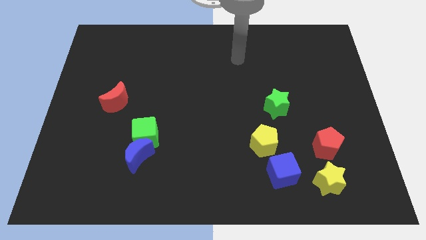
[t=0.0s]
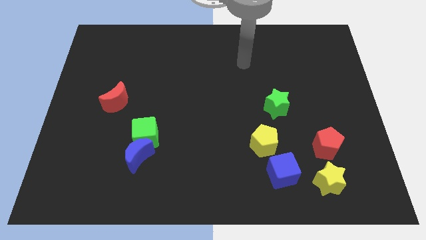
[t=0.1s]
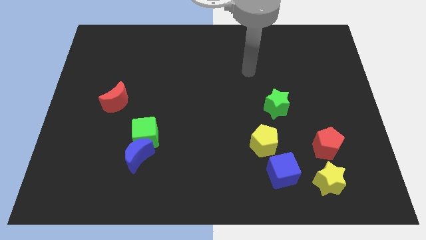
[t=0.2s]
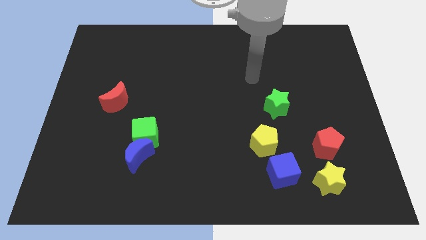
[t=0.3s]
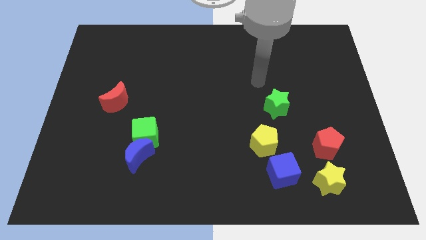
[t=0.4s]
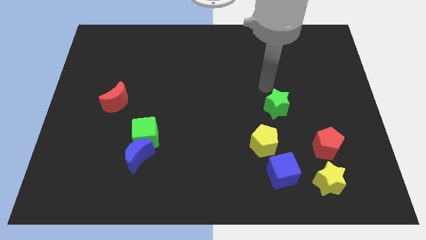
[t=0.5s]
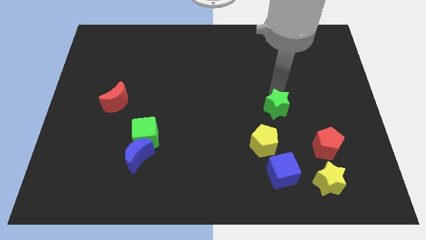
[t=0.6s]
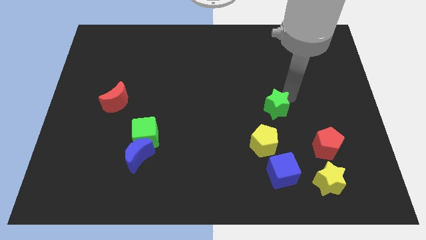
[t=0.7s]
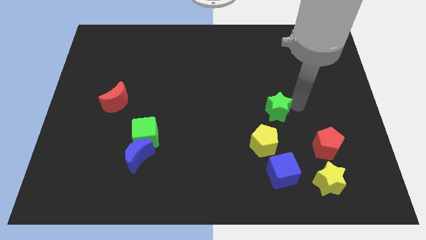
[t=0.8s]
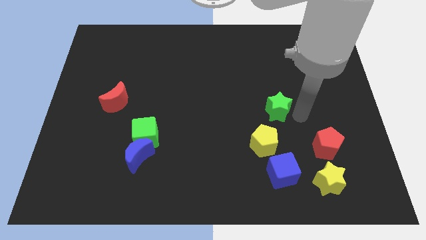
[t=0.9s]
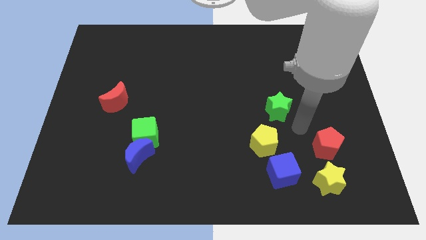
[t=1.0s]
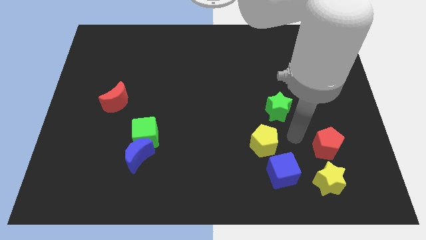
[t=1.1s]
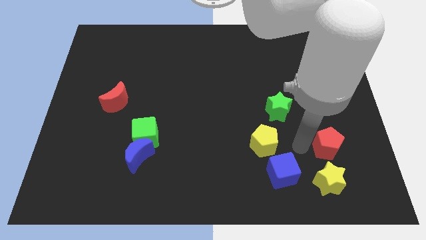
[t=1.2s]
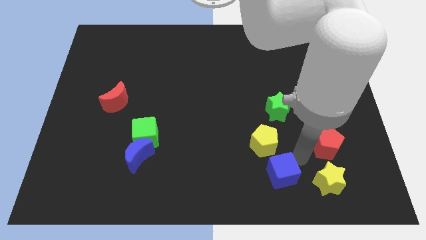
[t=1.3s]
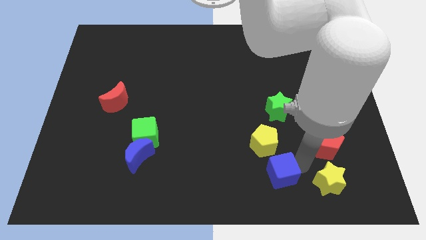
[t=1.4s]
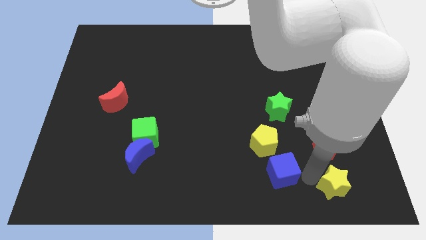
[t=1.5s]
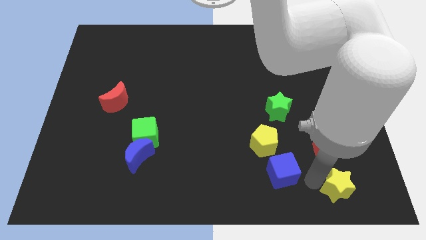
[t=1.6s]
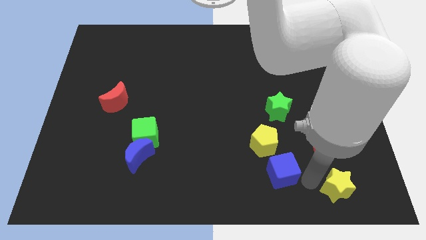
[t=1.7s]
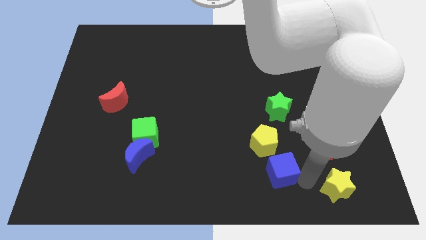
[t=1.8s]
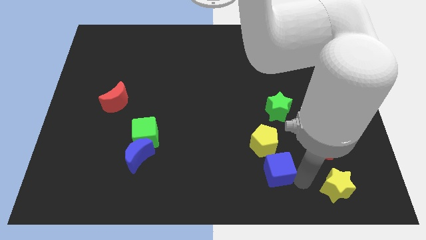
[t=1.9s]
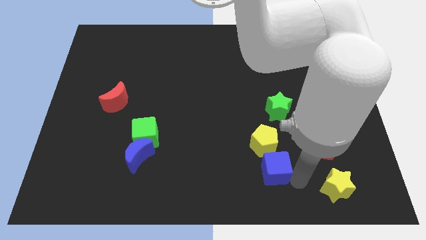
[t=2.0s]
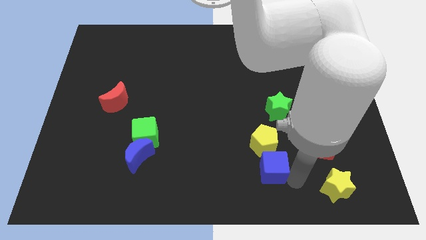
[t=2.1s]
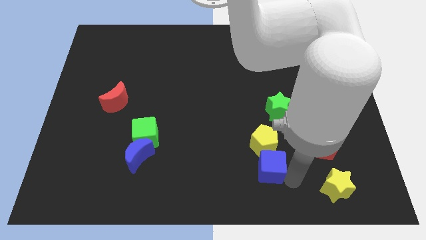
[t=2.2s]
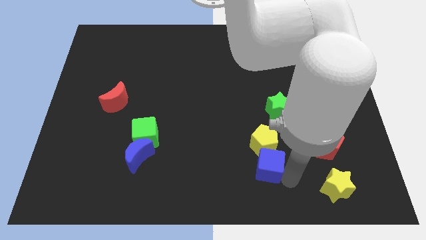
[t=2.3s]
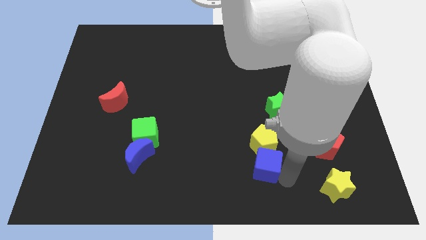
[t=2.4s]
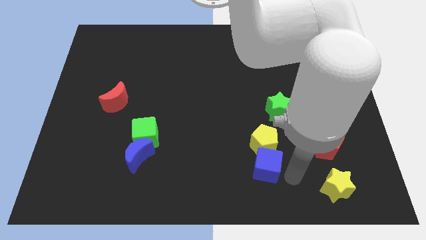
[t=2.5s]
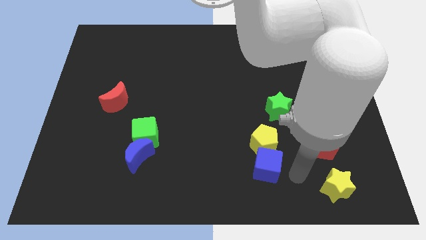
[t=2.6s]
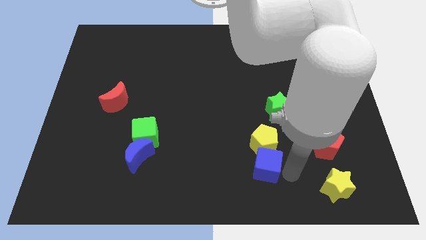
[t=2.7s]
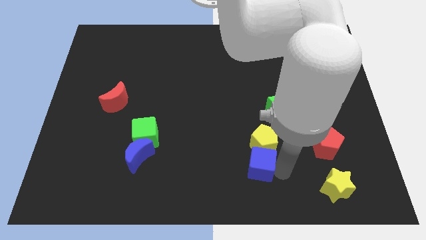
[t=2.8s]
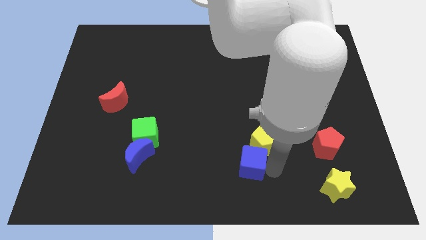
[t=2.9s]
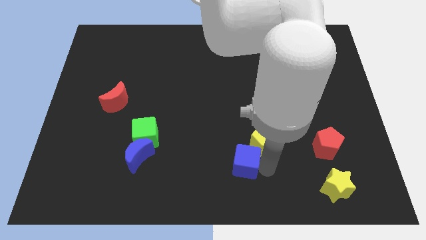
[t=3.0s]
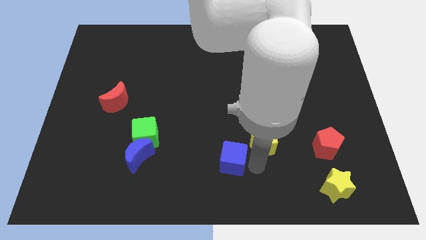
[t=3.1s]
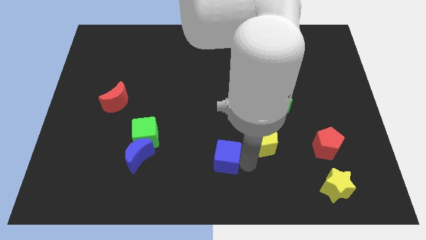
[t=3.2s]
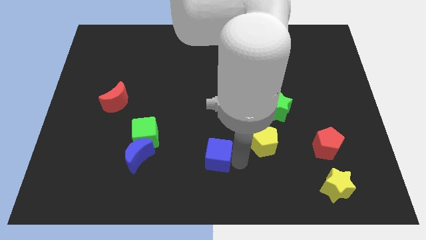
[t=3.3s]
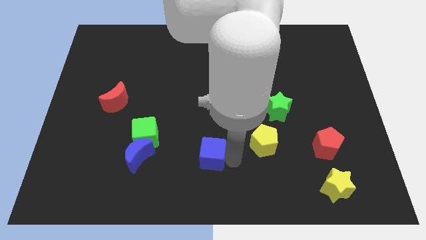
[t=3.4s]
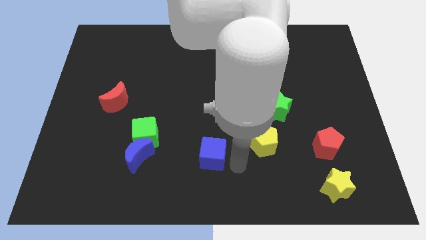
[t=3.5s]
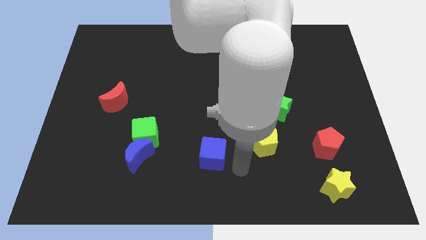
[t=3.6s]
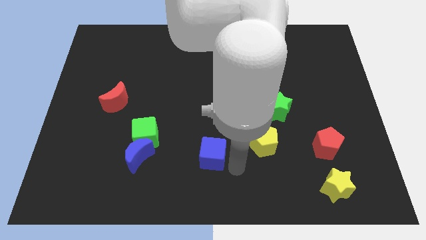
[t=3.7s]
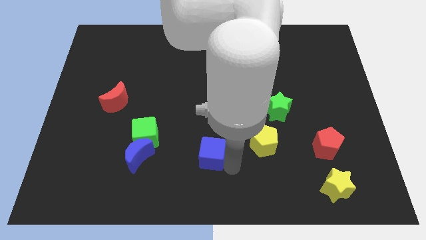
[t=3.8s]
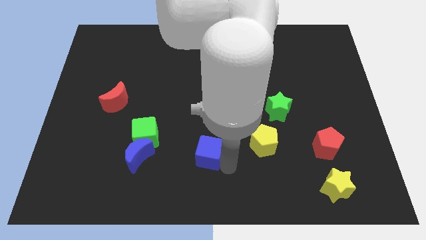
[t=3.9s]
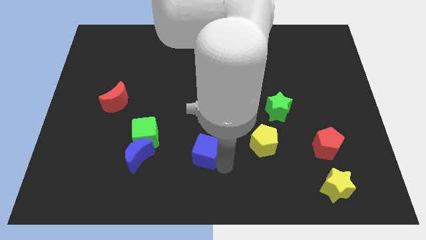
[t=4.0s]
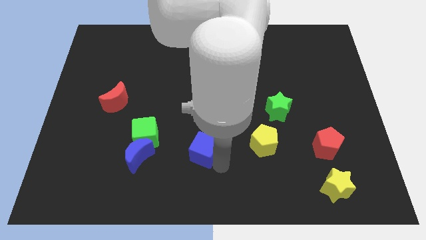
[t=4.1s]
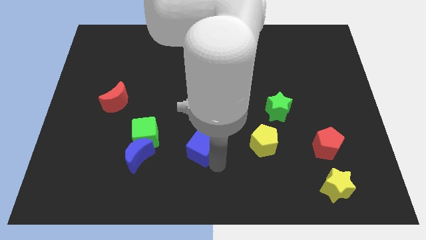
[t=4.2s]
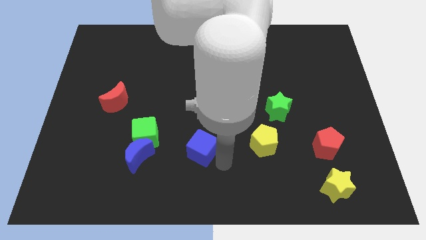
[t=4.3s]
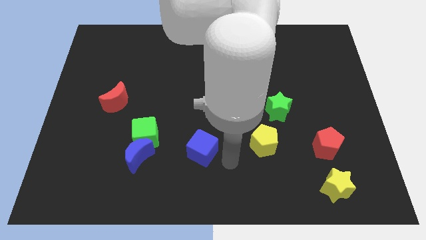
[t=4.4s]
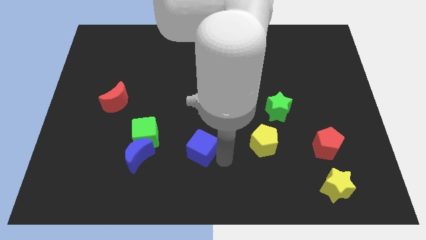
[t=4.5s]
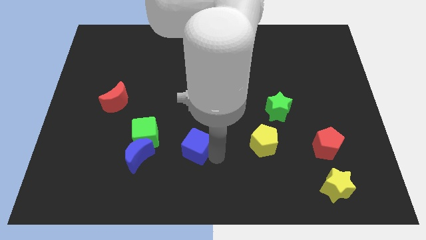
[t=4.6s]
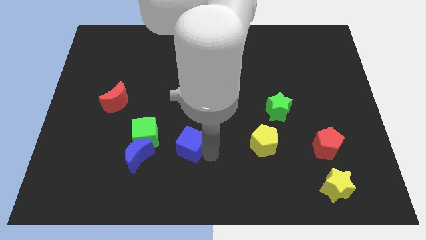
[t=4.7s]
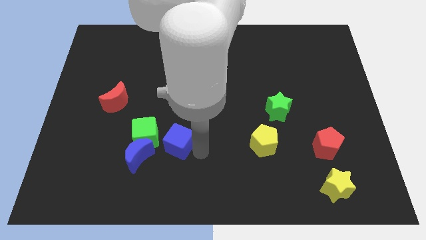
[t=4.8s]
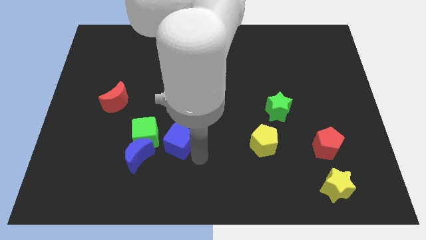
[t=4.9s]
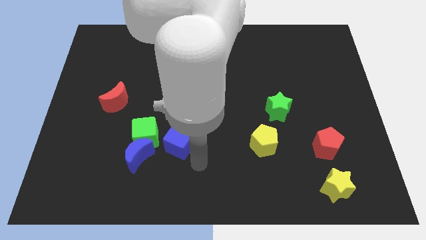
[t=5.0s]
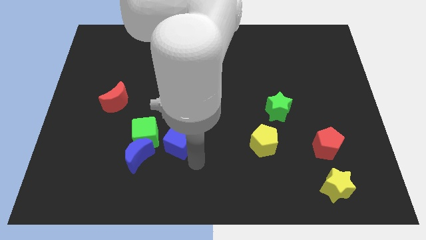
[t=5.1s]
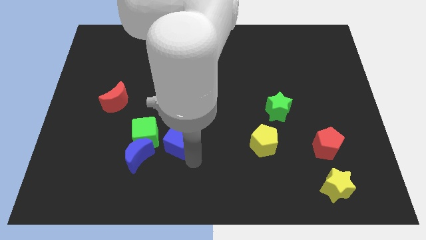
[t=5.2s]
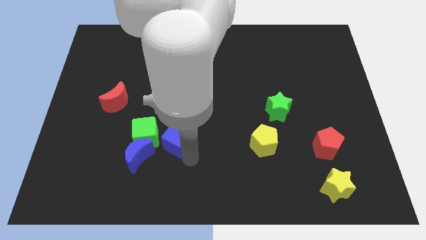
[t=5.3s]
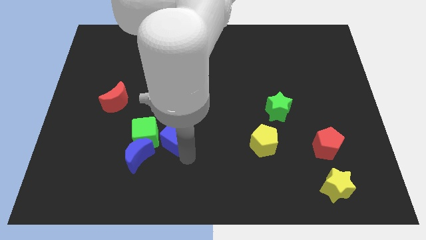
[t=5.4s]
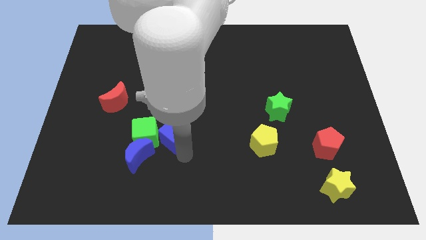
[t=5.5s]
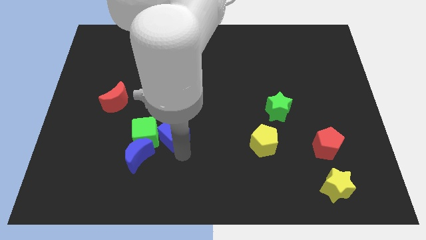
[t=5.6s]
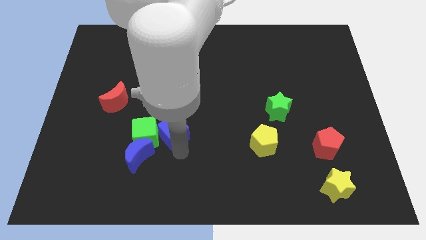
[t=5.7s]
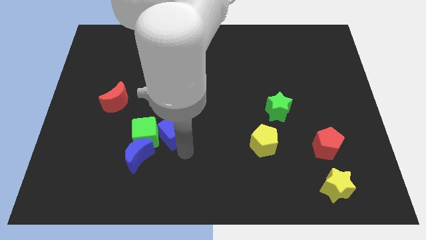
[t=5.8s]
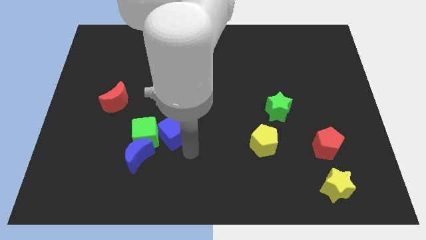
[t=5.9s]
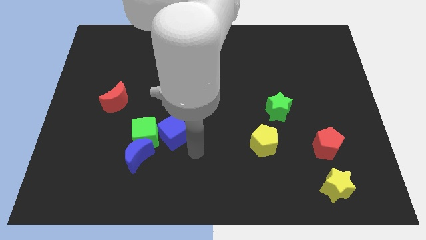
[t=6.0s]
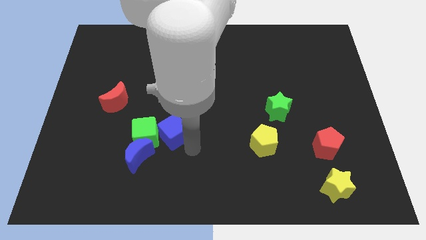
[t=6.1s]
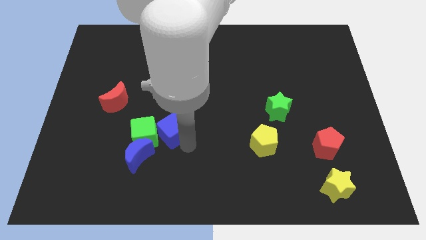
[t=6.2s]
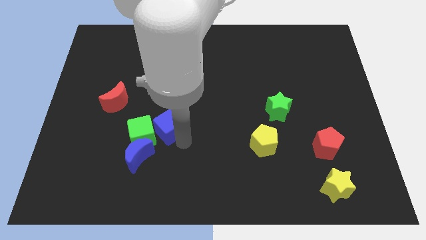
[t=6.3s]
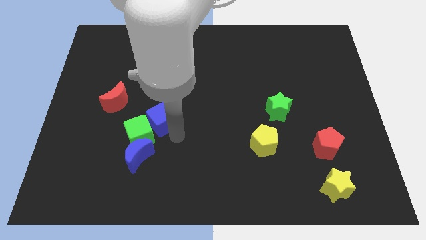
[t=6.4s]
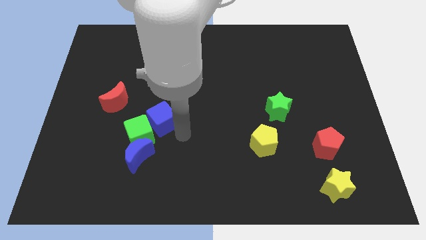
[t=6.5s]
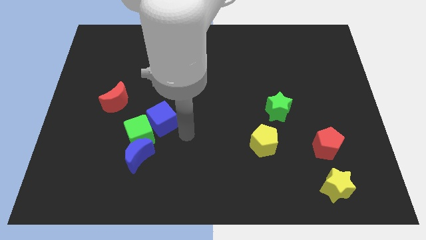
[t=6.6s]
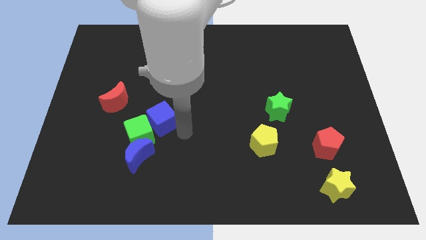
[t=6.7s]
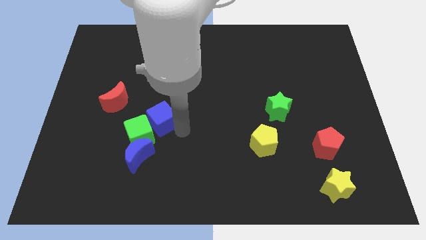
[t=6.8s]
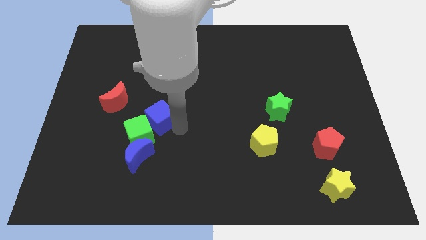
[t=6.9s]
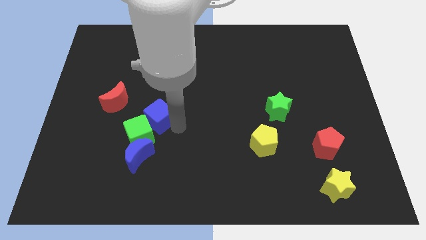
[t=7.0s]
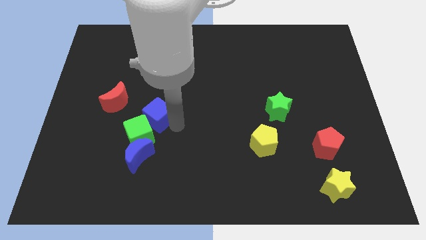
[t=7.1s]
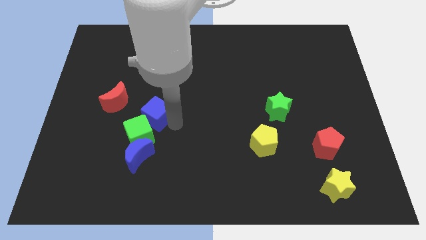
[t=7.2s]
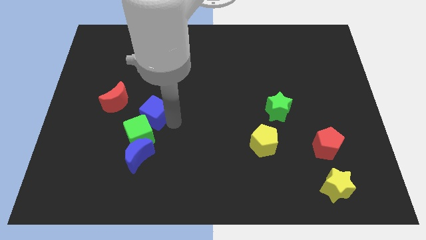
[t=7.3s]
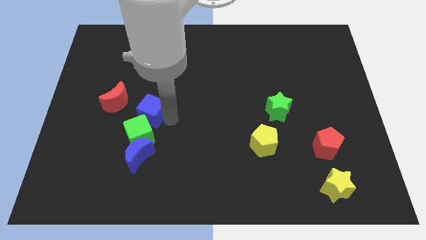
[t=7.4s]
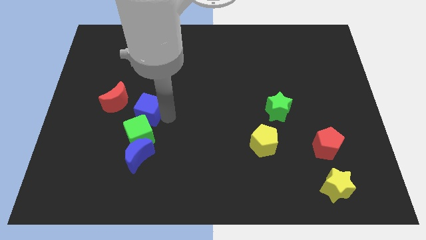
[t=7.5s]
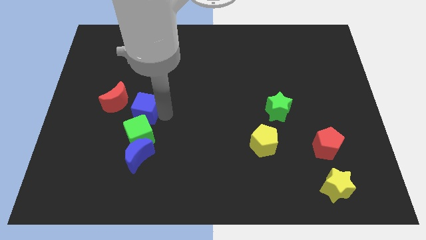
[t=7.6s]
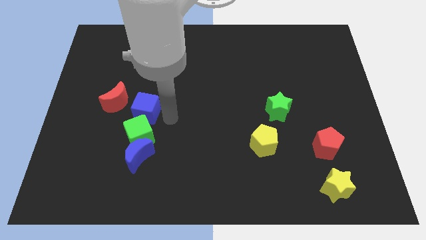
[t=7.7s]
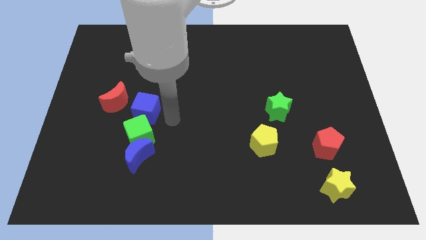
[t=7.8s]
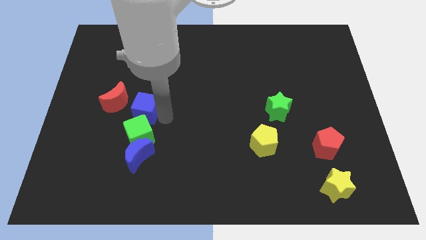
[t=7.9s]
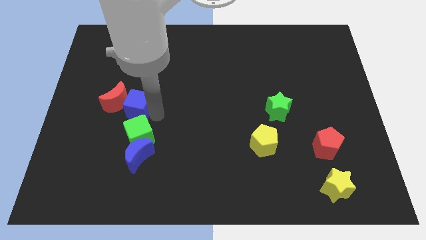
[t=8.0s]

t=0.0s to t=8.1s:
slide the blue cube towards the red moon
